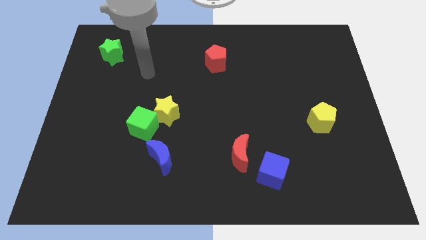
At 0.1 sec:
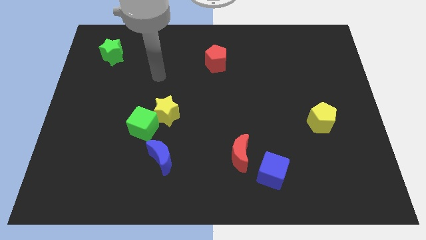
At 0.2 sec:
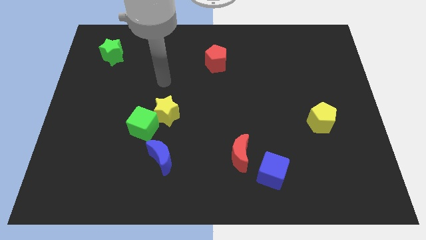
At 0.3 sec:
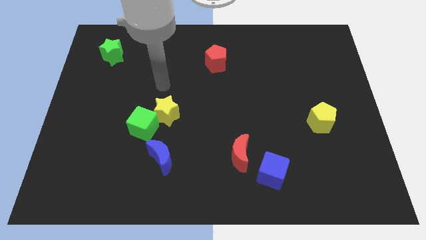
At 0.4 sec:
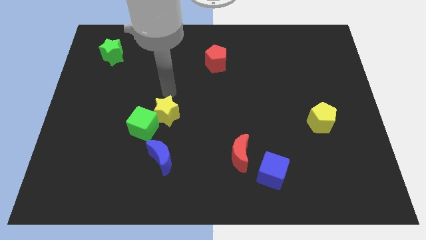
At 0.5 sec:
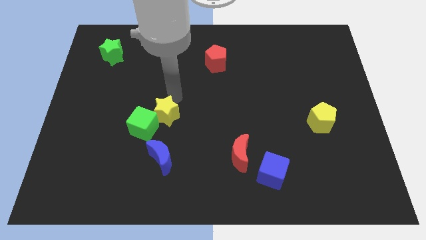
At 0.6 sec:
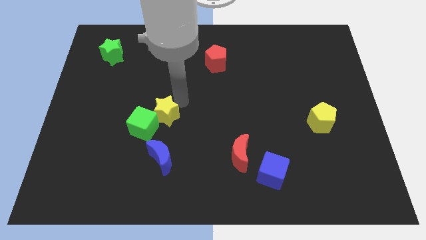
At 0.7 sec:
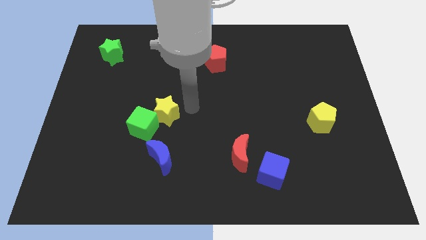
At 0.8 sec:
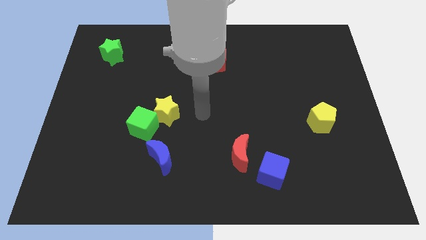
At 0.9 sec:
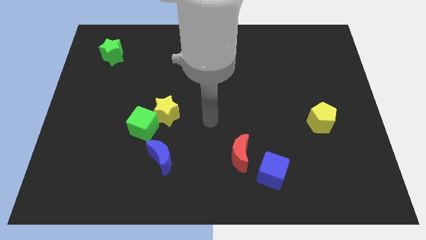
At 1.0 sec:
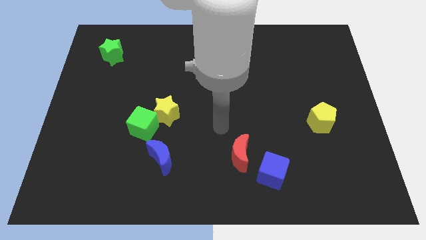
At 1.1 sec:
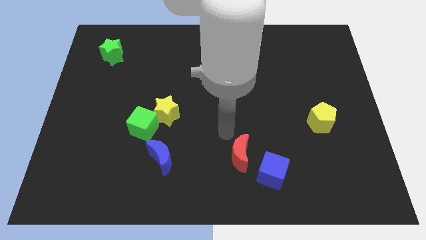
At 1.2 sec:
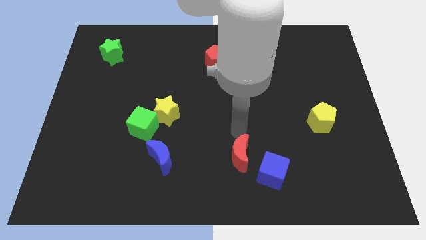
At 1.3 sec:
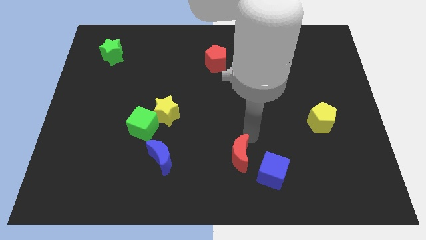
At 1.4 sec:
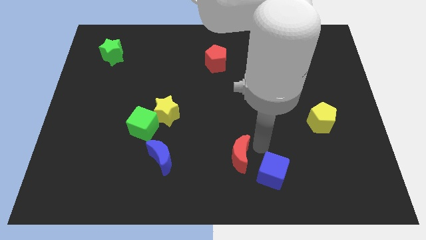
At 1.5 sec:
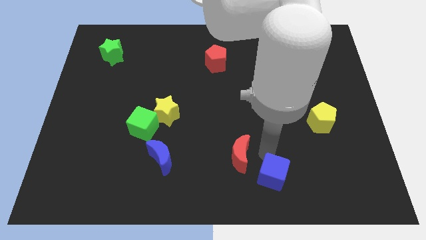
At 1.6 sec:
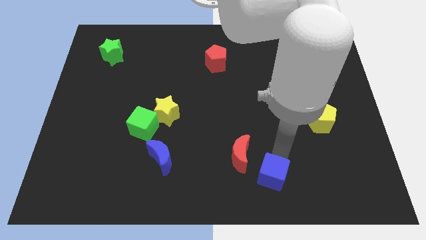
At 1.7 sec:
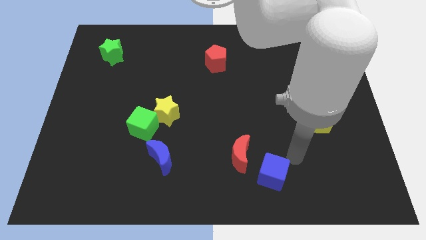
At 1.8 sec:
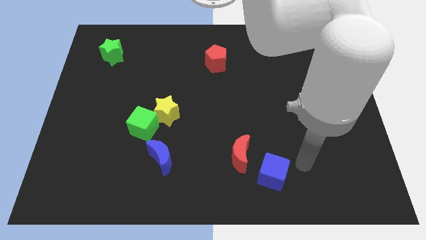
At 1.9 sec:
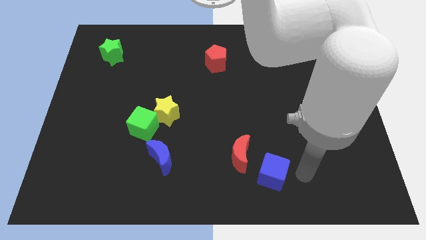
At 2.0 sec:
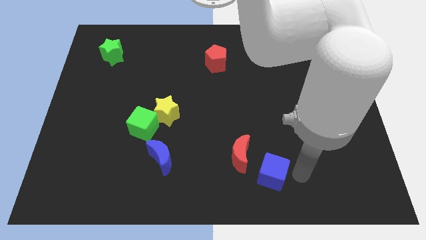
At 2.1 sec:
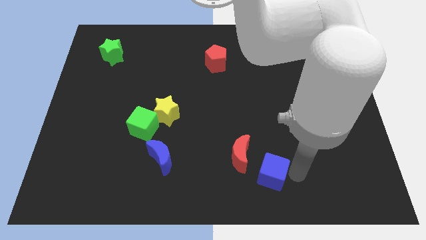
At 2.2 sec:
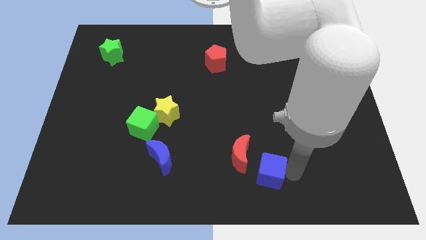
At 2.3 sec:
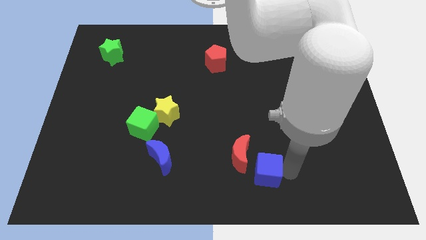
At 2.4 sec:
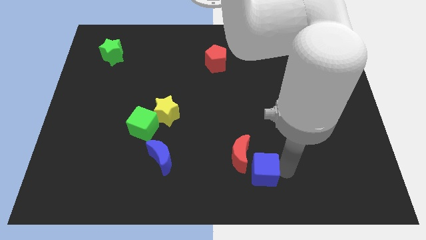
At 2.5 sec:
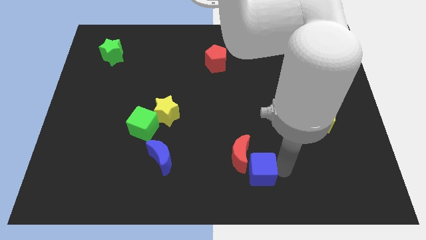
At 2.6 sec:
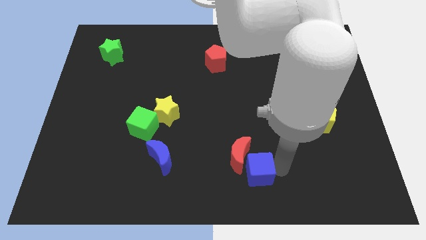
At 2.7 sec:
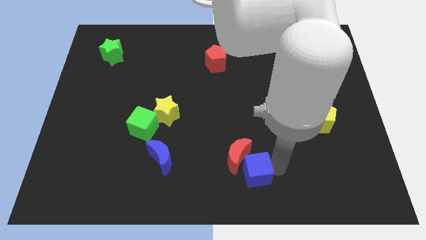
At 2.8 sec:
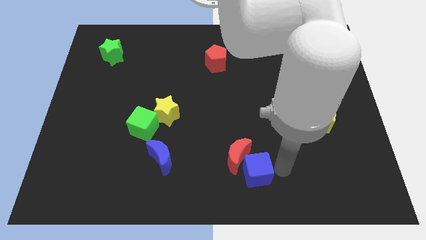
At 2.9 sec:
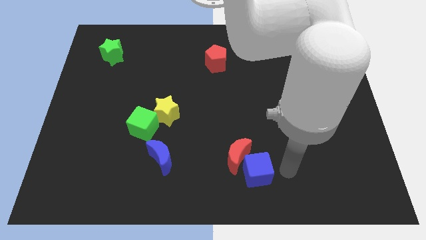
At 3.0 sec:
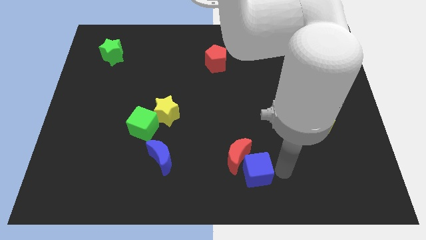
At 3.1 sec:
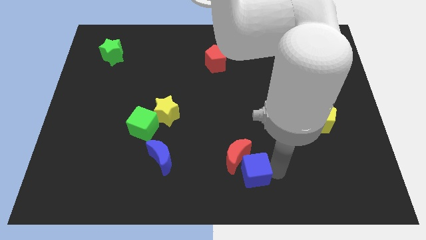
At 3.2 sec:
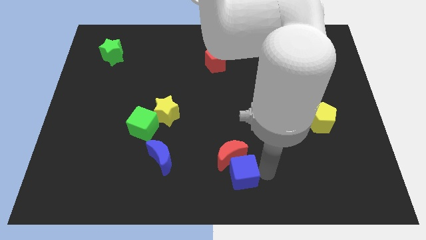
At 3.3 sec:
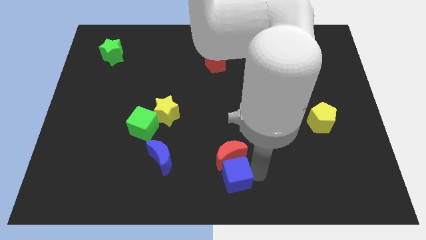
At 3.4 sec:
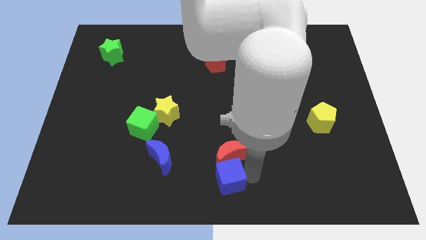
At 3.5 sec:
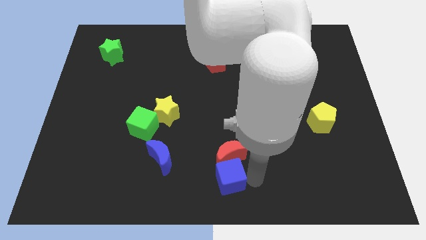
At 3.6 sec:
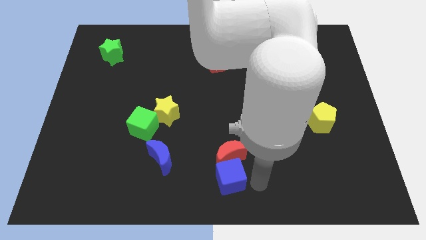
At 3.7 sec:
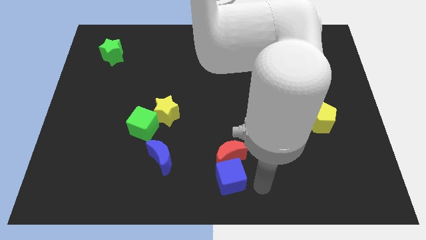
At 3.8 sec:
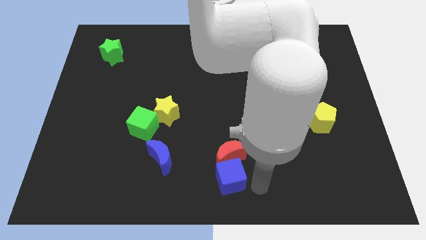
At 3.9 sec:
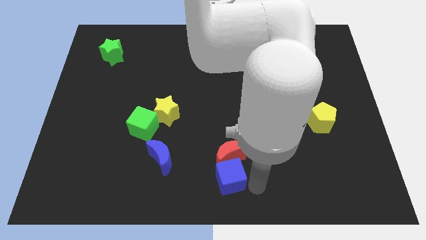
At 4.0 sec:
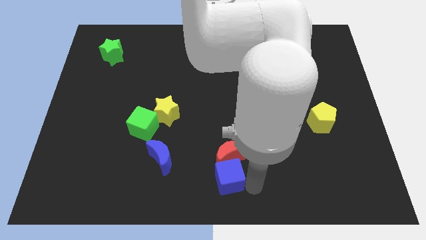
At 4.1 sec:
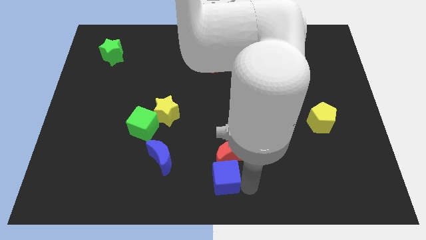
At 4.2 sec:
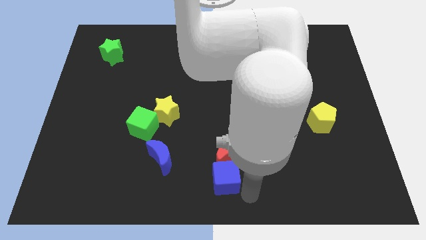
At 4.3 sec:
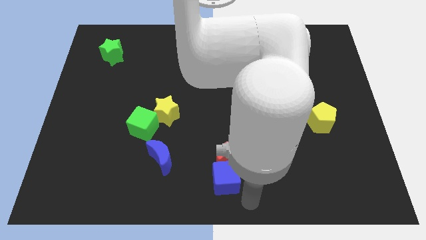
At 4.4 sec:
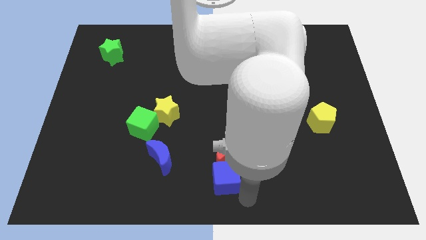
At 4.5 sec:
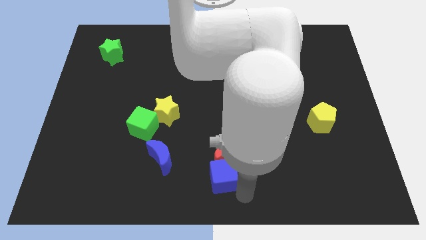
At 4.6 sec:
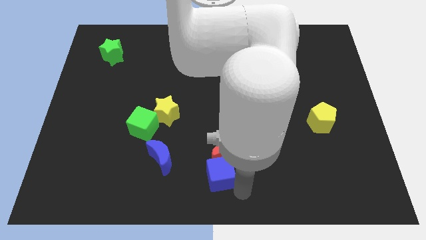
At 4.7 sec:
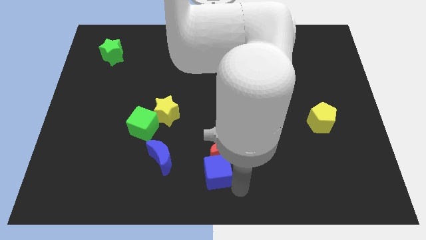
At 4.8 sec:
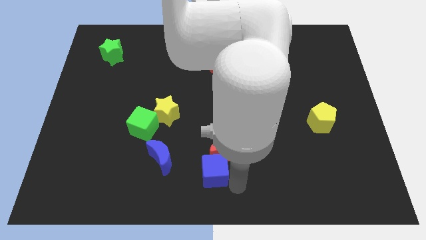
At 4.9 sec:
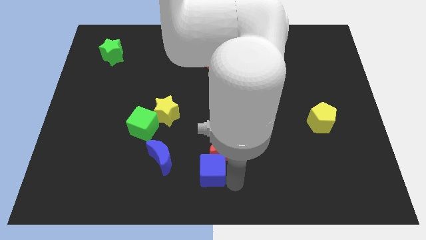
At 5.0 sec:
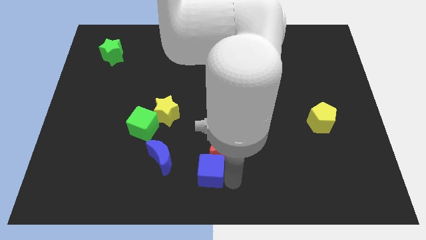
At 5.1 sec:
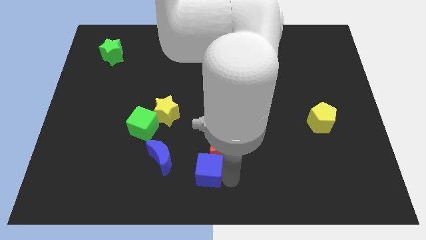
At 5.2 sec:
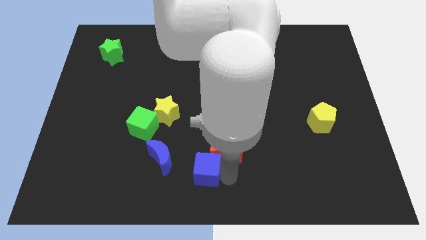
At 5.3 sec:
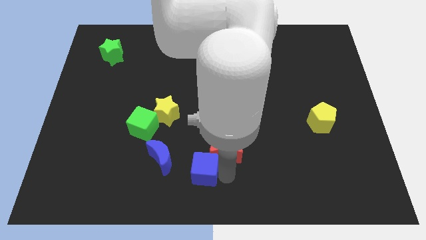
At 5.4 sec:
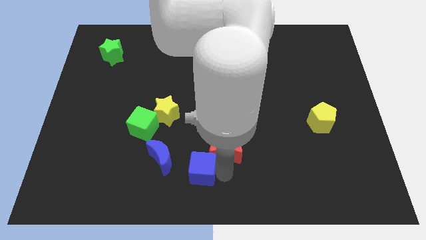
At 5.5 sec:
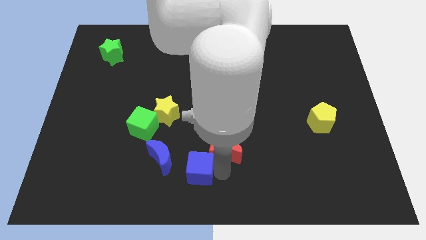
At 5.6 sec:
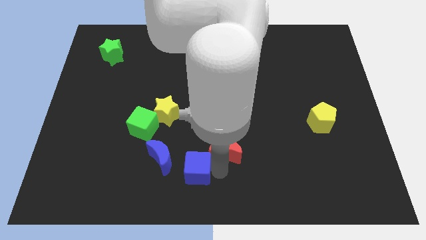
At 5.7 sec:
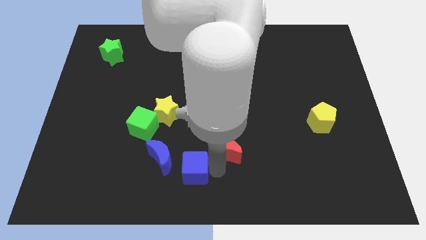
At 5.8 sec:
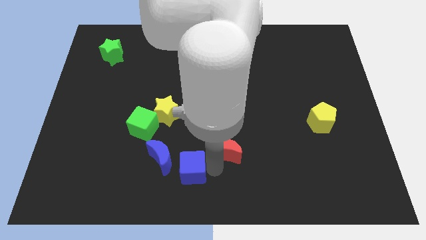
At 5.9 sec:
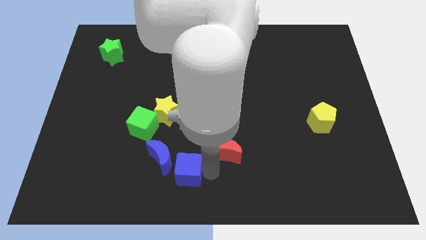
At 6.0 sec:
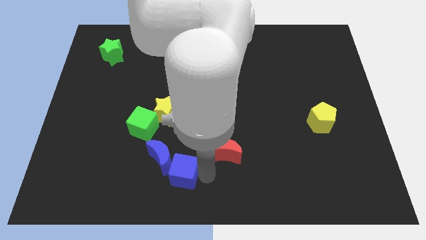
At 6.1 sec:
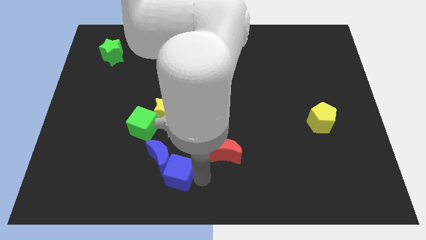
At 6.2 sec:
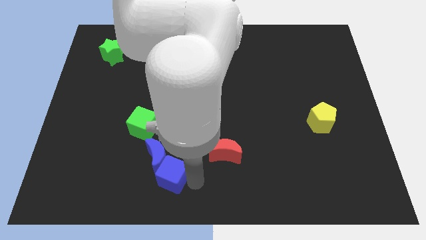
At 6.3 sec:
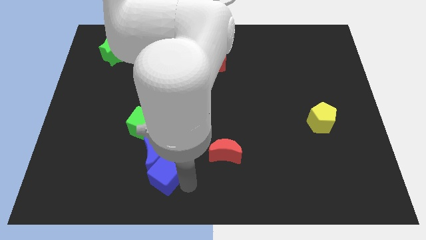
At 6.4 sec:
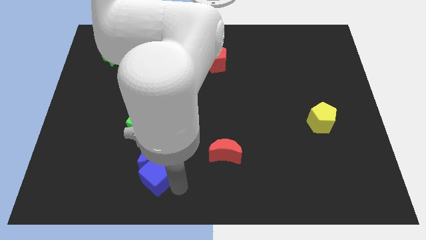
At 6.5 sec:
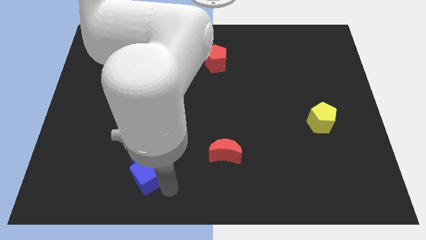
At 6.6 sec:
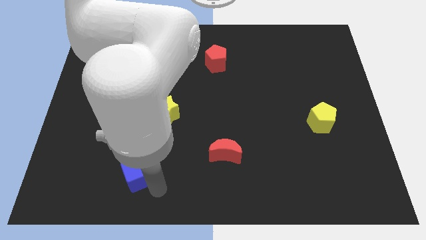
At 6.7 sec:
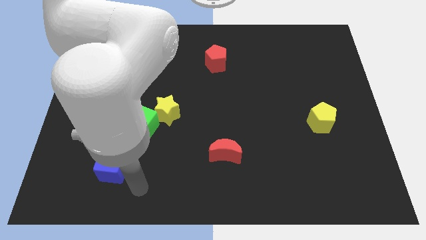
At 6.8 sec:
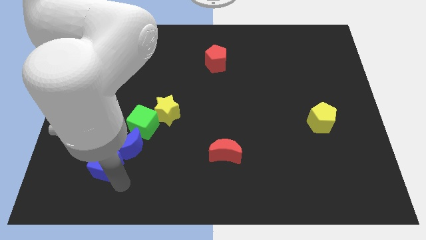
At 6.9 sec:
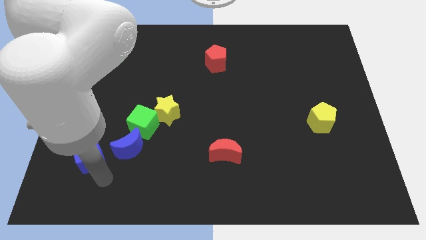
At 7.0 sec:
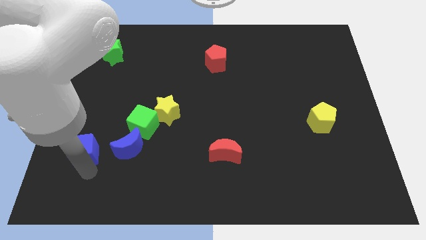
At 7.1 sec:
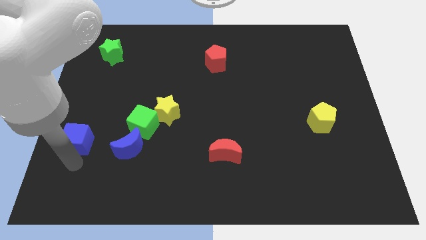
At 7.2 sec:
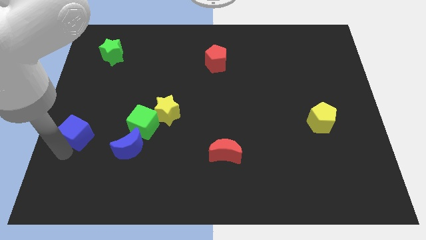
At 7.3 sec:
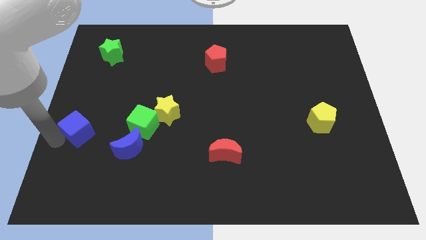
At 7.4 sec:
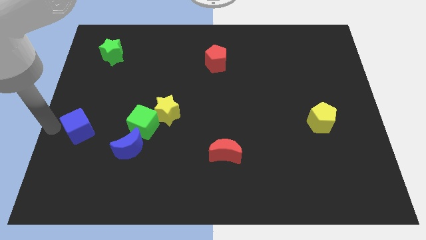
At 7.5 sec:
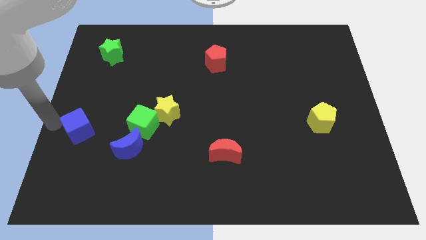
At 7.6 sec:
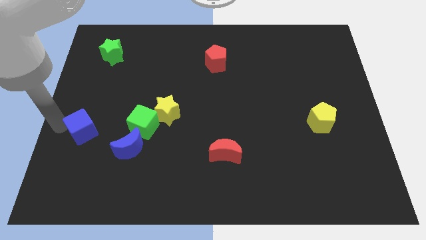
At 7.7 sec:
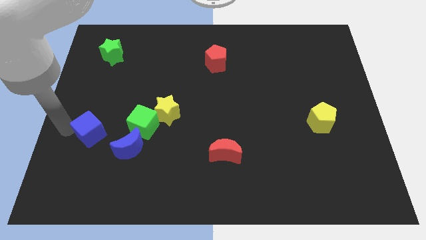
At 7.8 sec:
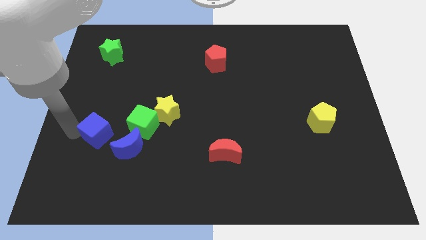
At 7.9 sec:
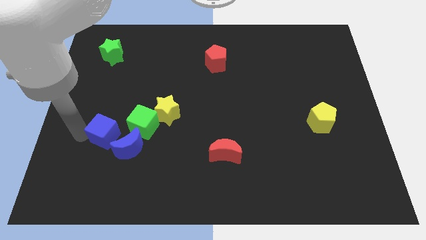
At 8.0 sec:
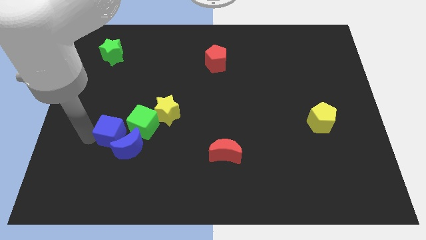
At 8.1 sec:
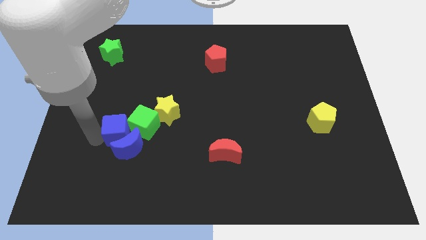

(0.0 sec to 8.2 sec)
slide the blue cube close to the green cube
